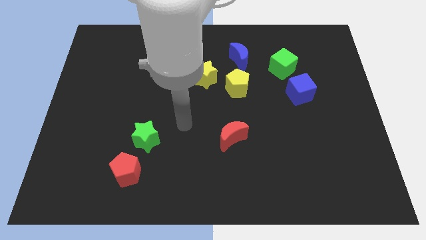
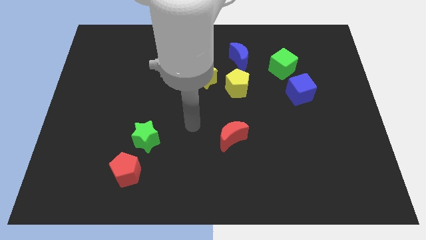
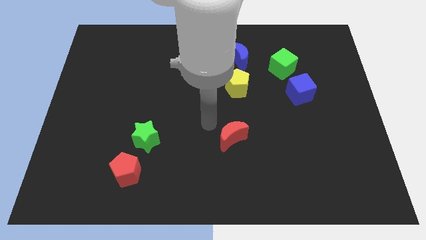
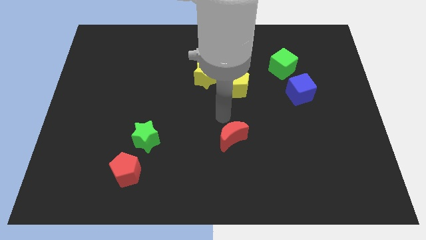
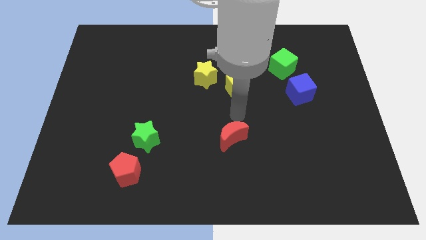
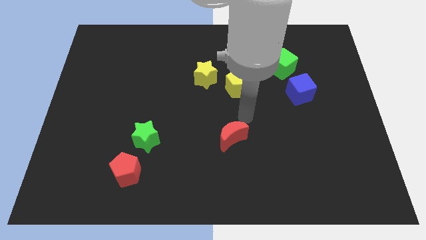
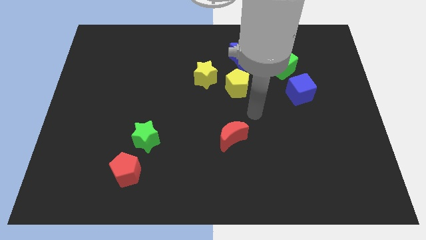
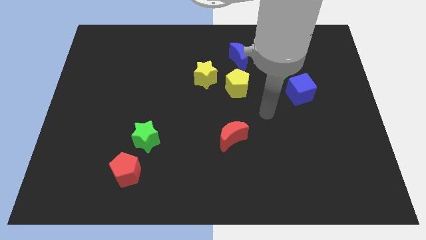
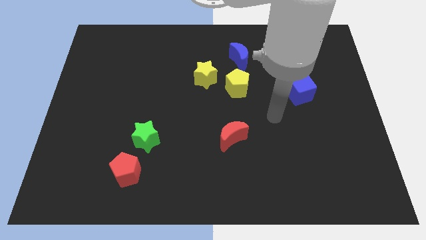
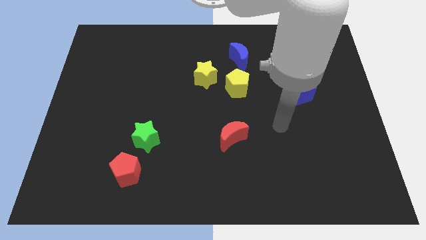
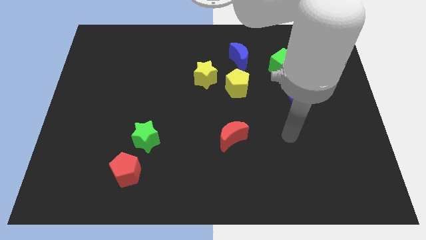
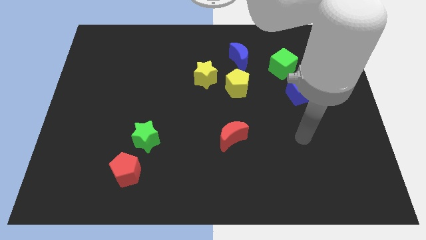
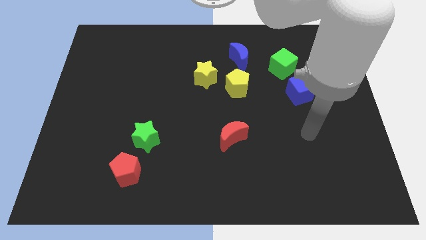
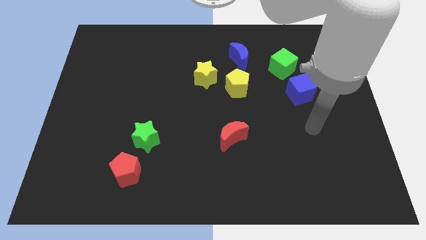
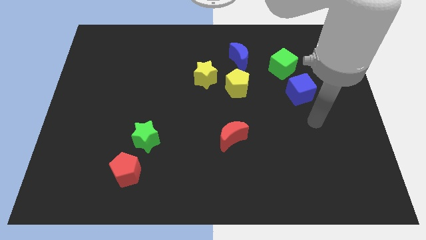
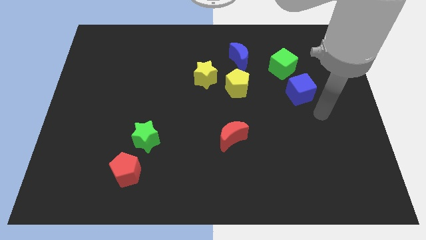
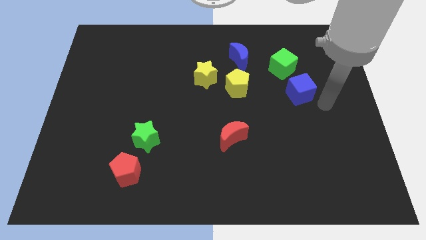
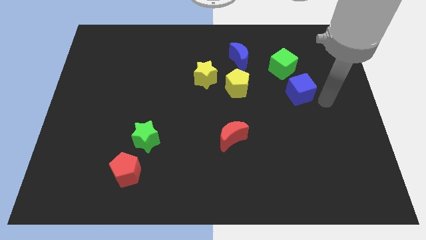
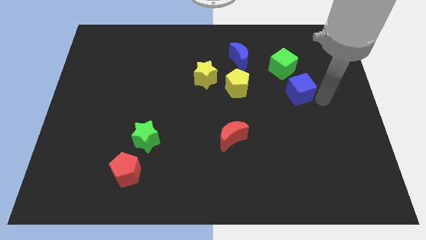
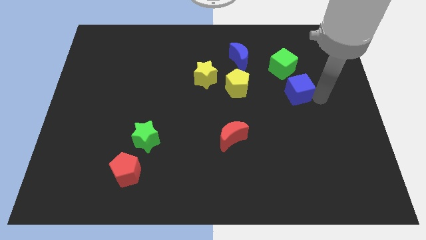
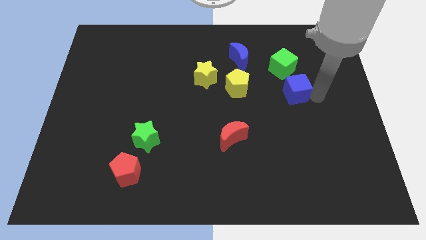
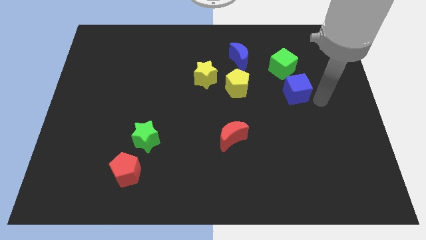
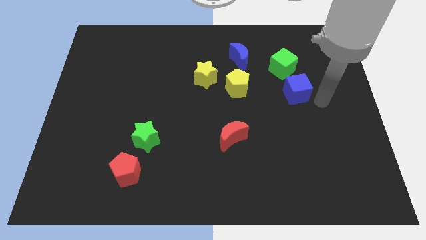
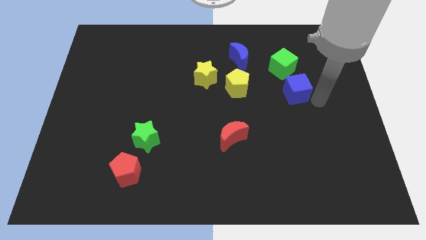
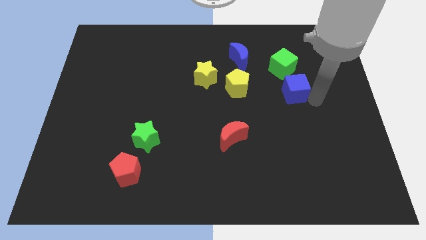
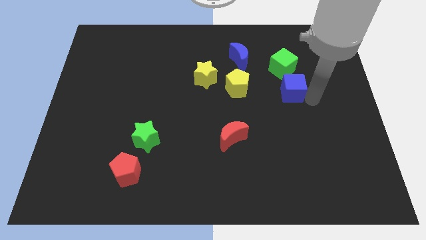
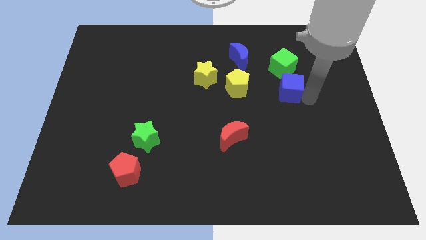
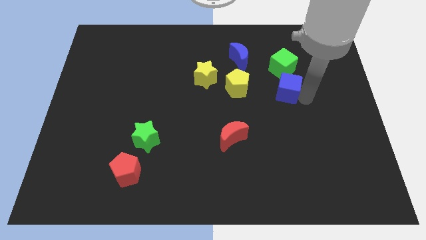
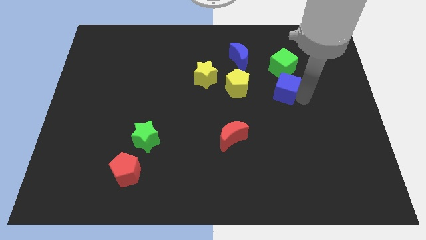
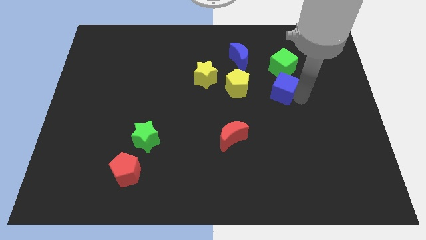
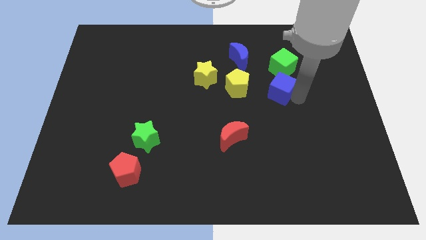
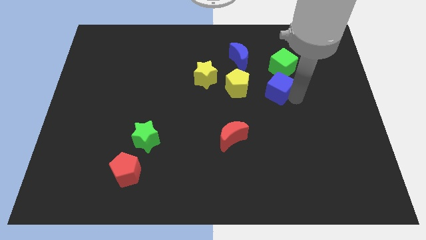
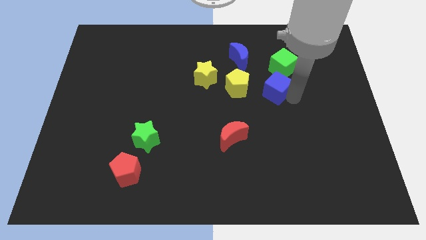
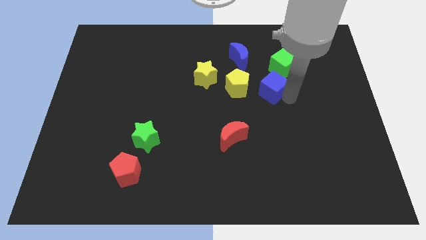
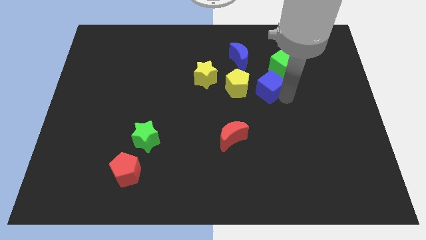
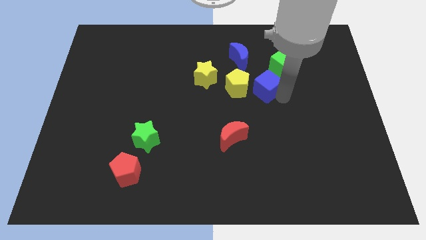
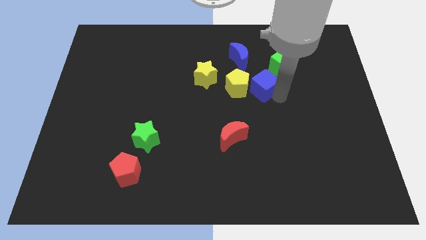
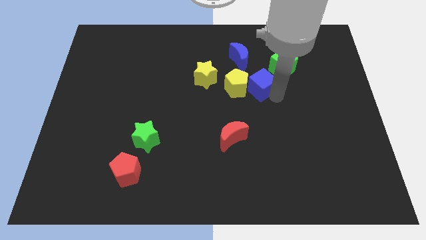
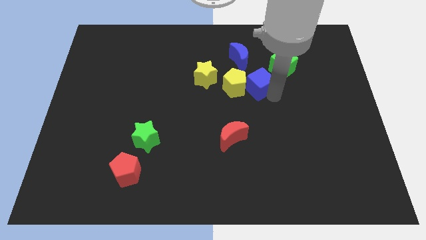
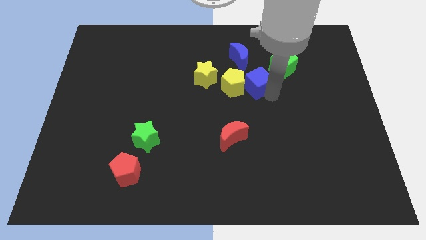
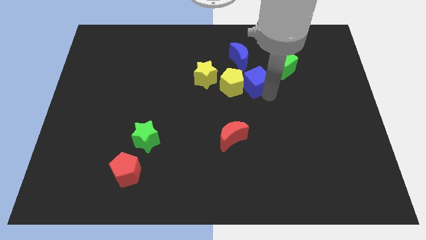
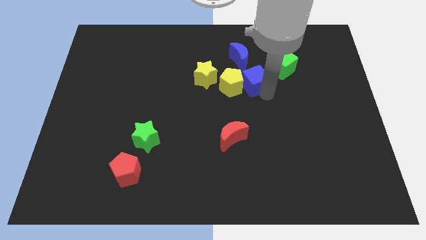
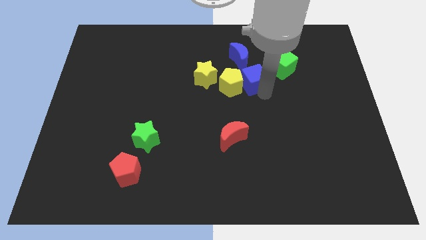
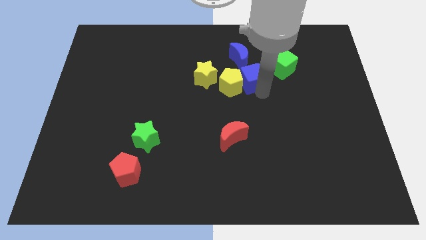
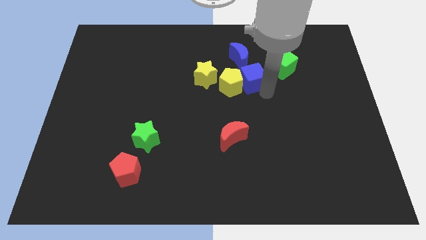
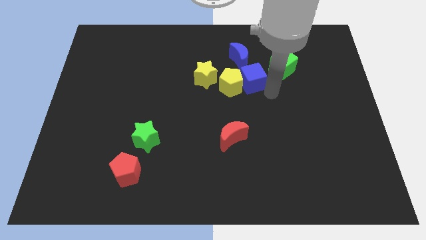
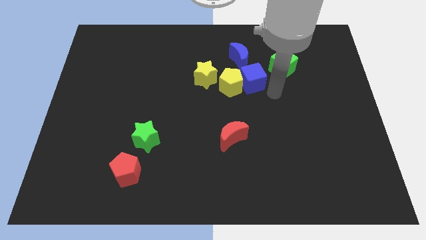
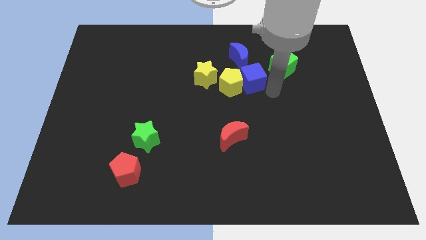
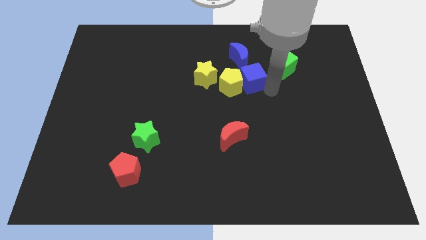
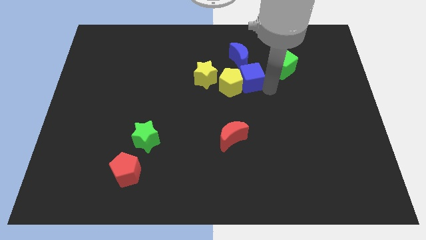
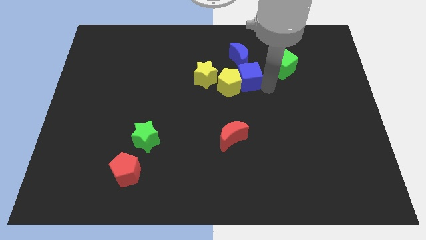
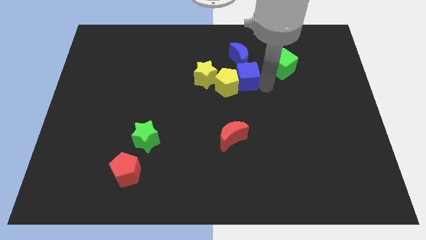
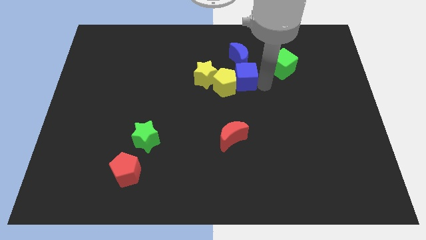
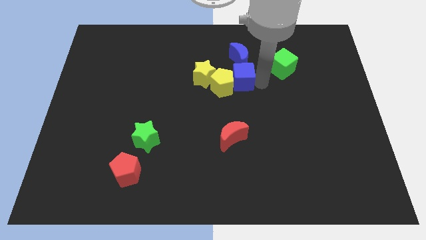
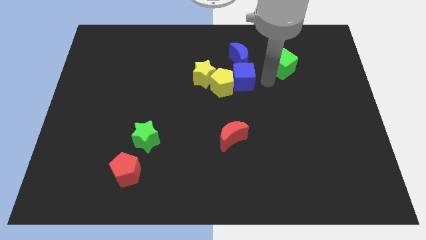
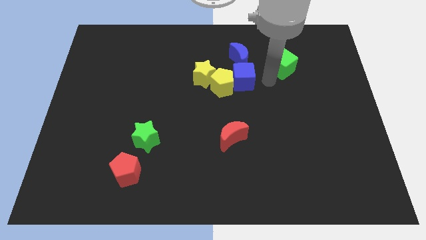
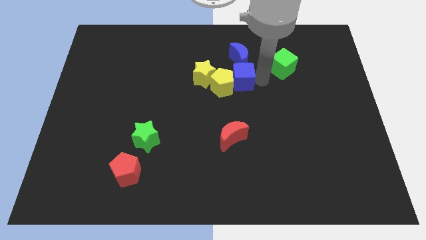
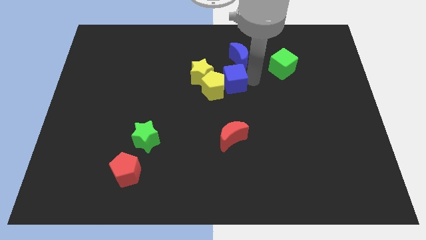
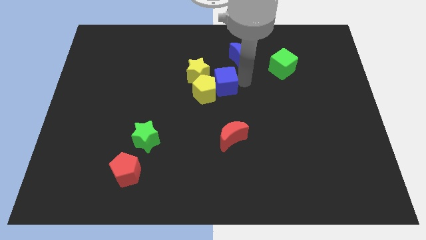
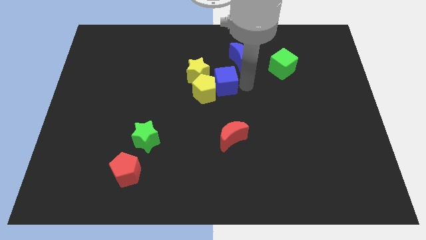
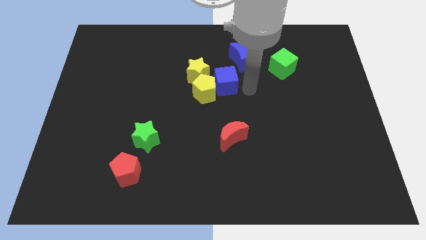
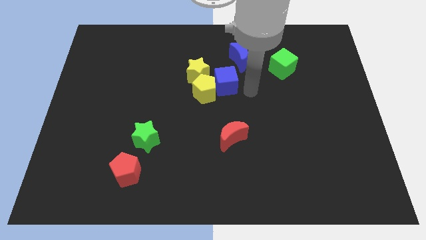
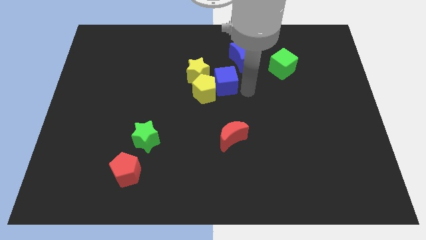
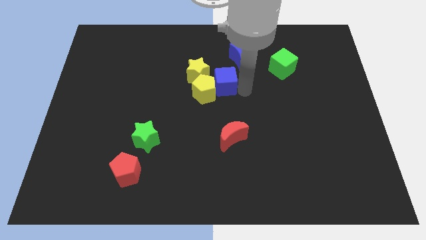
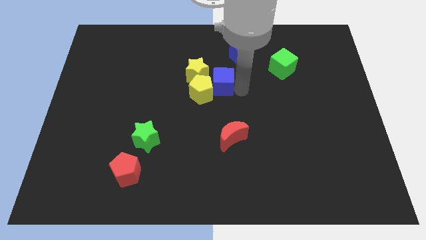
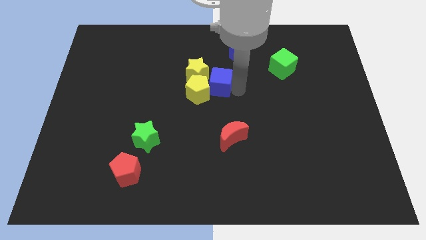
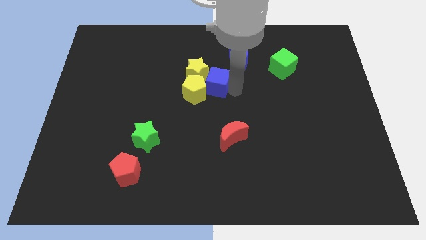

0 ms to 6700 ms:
put the blue cube next to the yellow star
